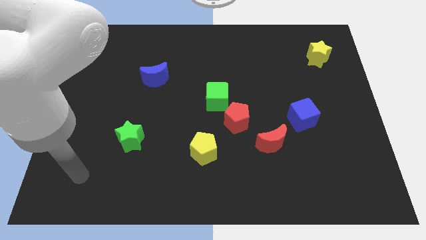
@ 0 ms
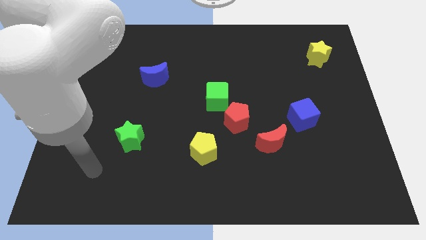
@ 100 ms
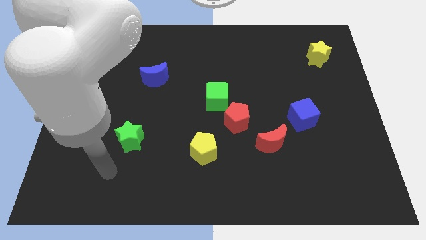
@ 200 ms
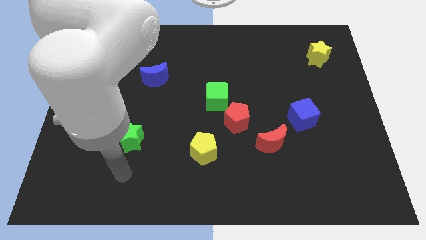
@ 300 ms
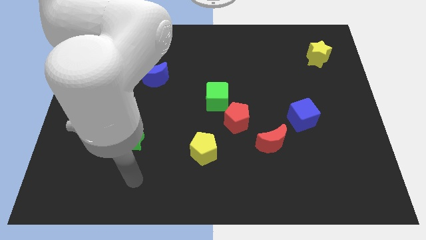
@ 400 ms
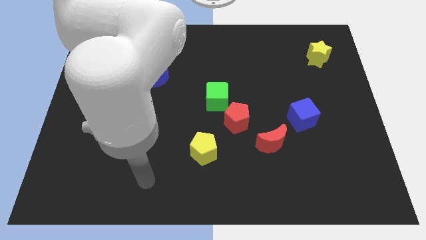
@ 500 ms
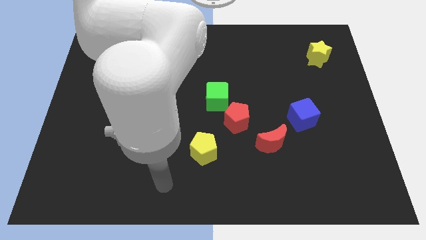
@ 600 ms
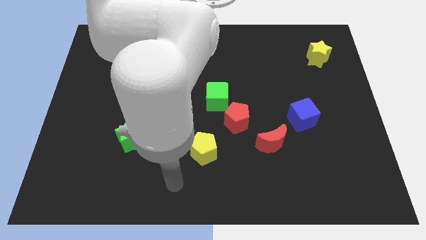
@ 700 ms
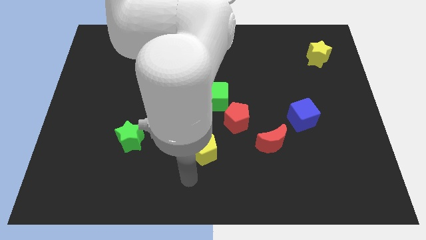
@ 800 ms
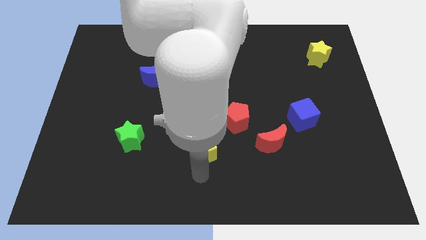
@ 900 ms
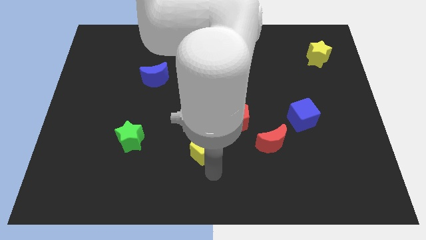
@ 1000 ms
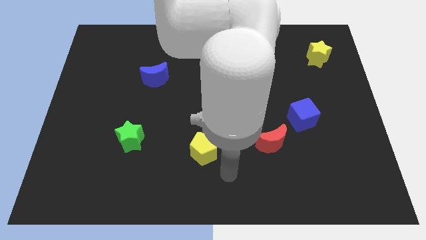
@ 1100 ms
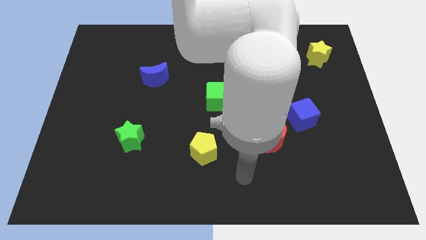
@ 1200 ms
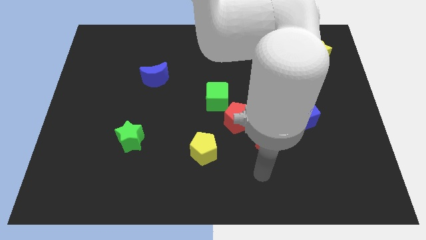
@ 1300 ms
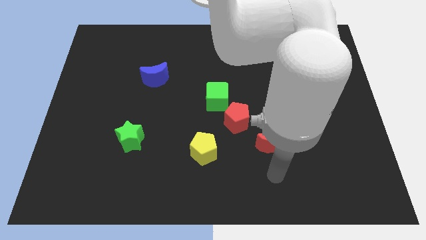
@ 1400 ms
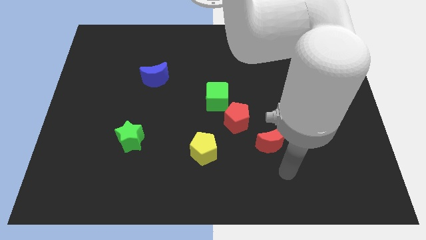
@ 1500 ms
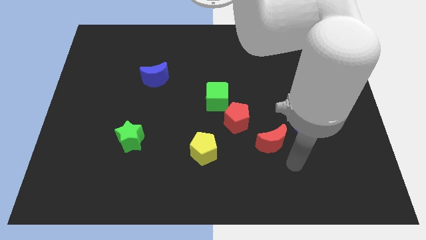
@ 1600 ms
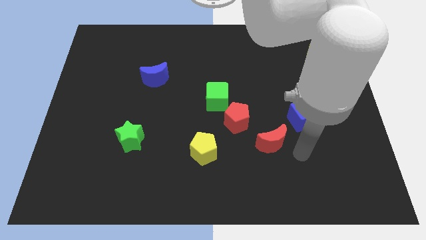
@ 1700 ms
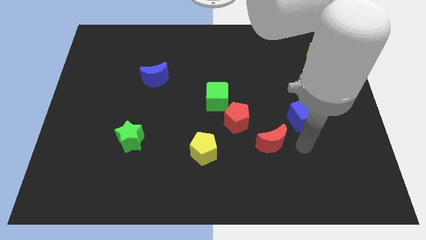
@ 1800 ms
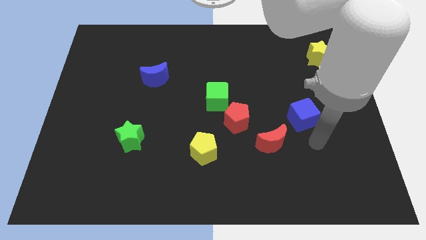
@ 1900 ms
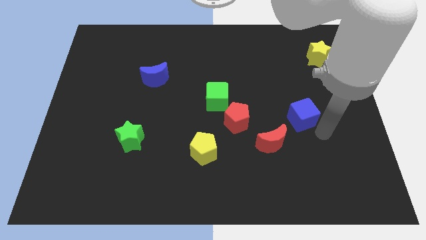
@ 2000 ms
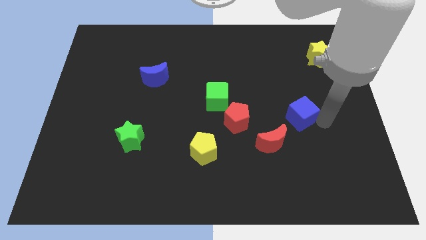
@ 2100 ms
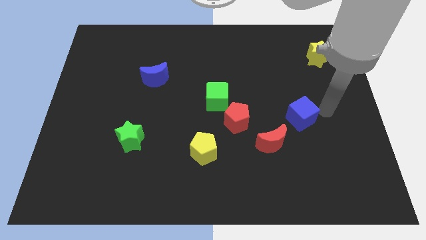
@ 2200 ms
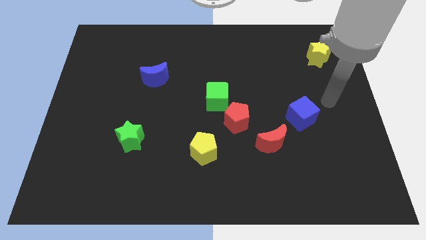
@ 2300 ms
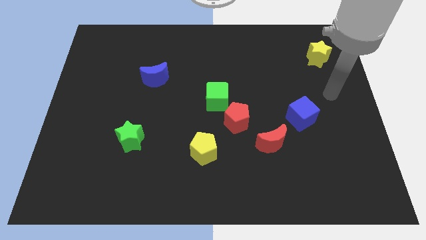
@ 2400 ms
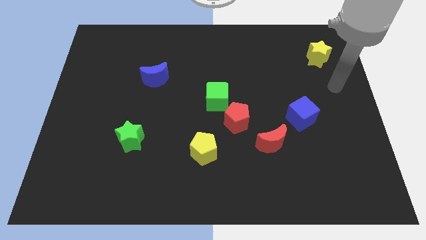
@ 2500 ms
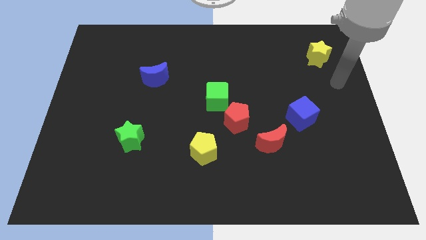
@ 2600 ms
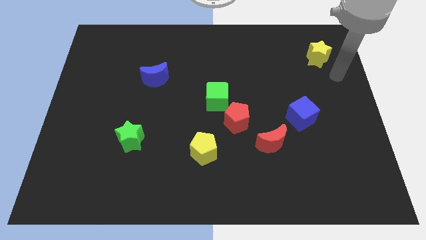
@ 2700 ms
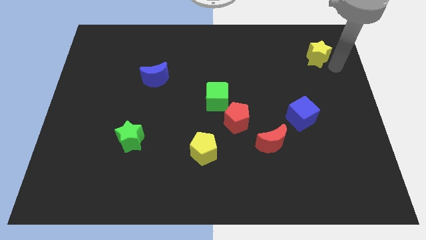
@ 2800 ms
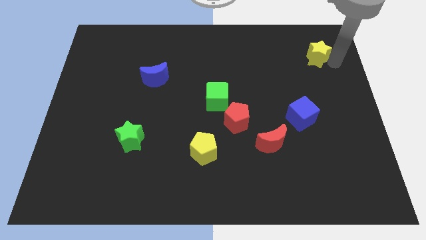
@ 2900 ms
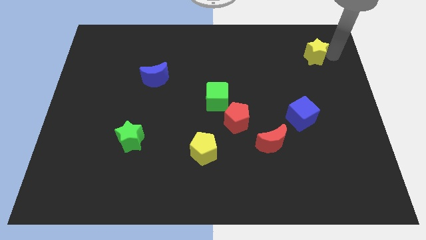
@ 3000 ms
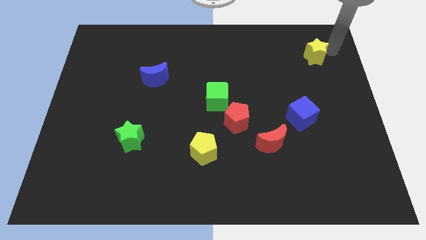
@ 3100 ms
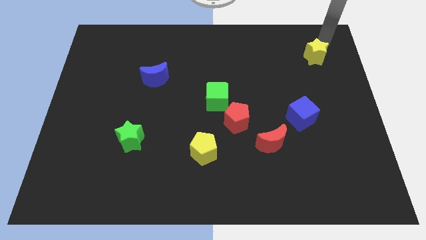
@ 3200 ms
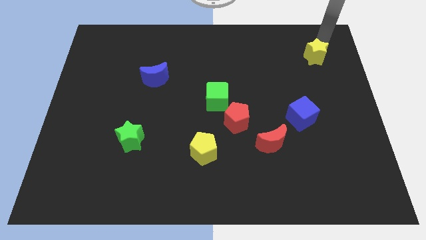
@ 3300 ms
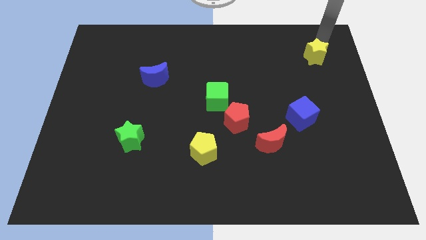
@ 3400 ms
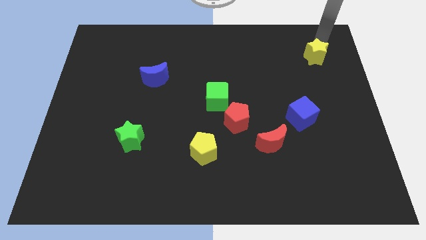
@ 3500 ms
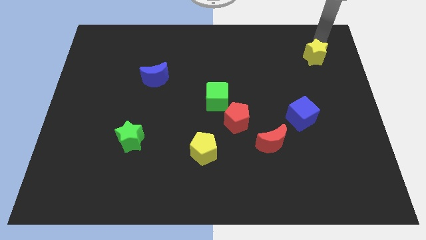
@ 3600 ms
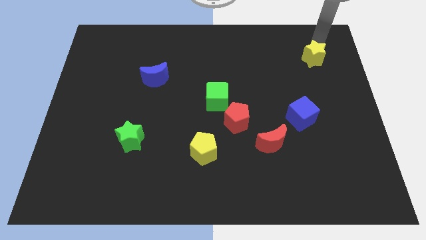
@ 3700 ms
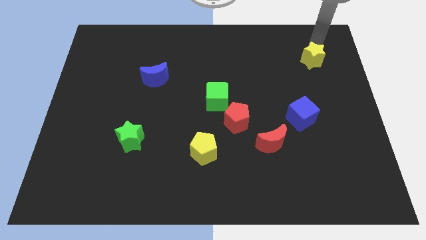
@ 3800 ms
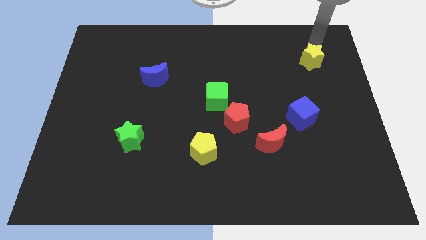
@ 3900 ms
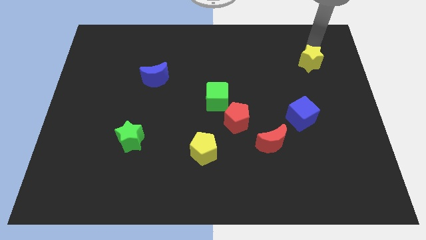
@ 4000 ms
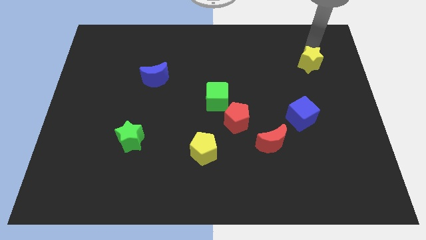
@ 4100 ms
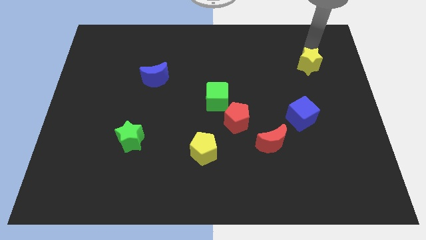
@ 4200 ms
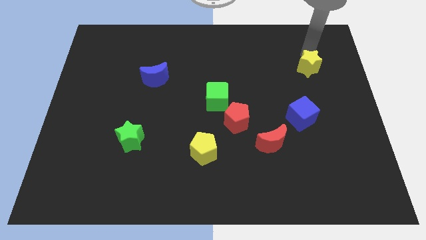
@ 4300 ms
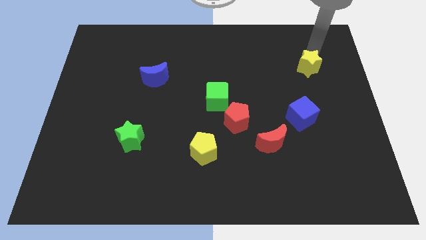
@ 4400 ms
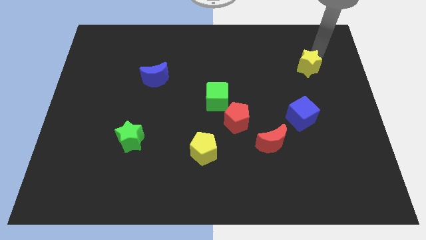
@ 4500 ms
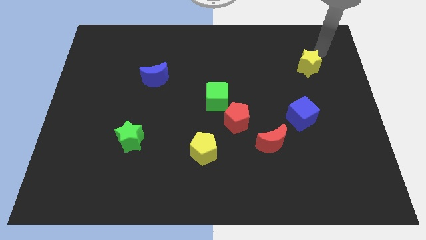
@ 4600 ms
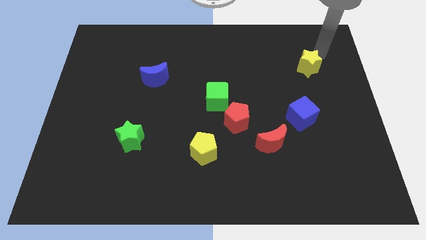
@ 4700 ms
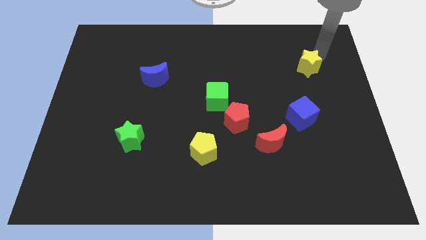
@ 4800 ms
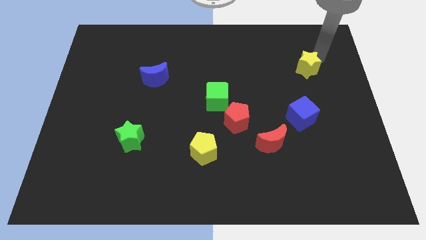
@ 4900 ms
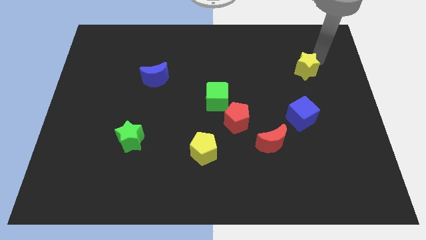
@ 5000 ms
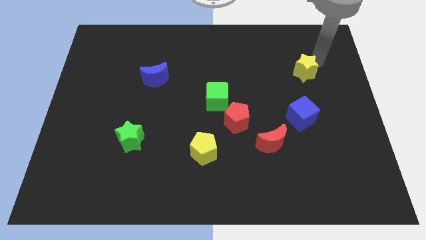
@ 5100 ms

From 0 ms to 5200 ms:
put the yellow star to the top side of the blue cube

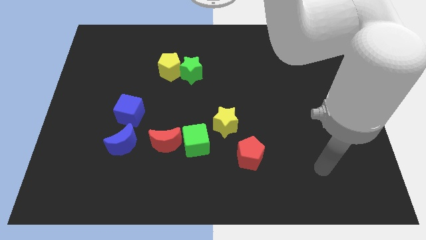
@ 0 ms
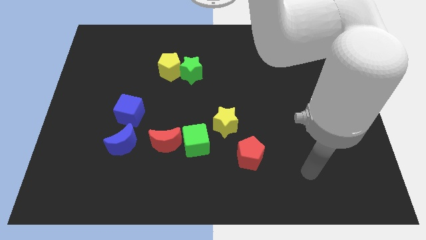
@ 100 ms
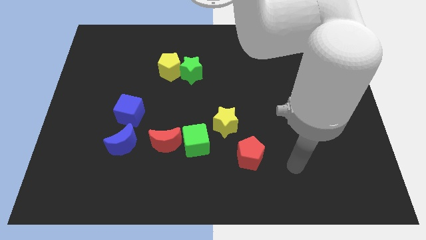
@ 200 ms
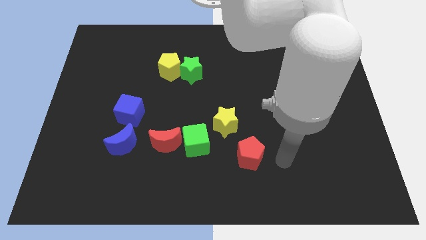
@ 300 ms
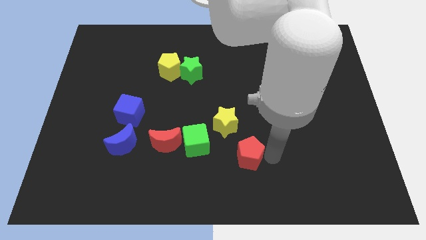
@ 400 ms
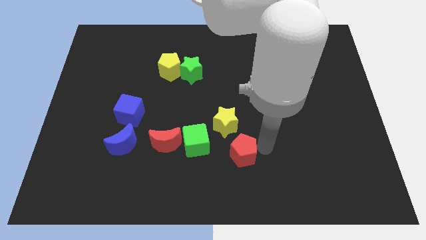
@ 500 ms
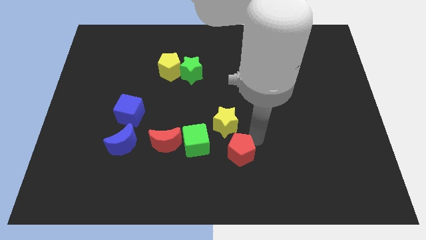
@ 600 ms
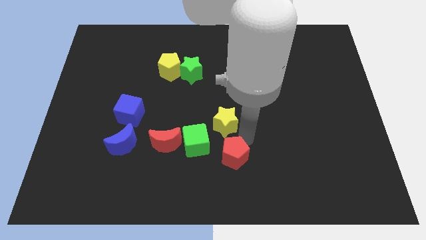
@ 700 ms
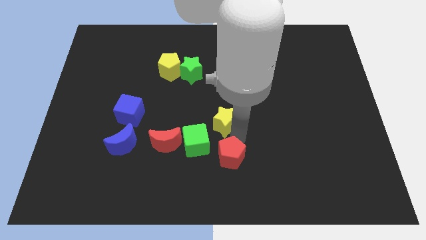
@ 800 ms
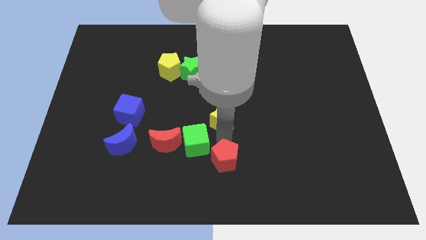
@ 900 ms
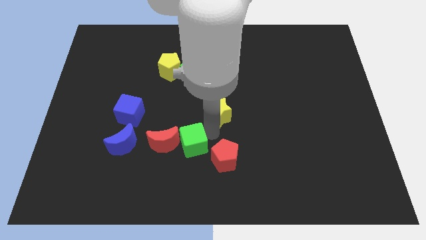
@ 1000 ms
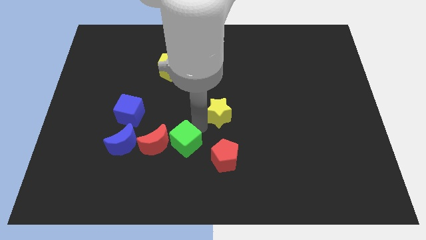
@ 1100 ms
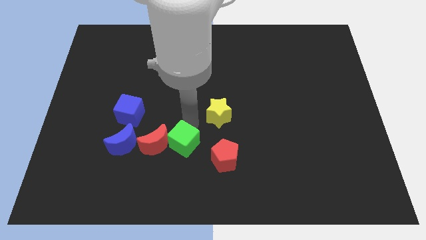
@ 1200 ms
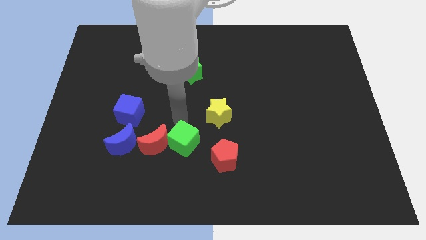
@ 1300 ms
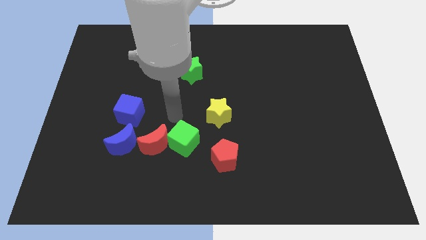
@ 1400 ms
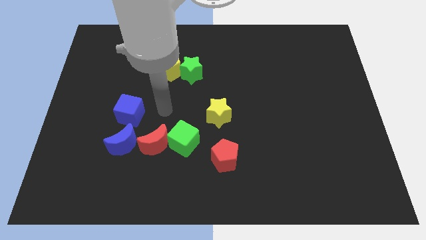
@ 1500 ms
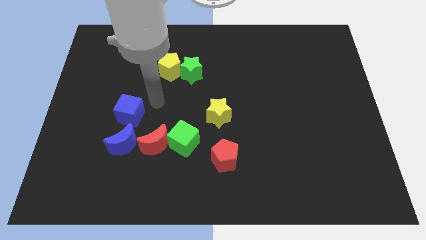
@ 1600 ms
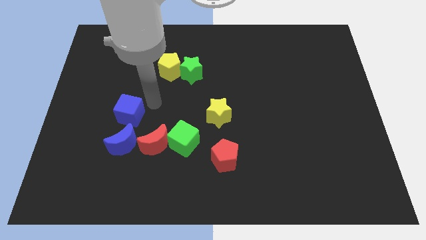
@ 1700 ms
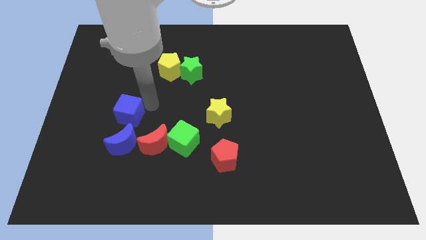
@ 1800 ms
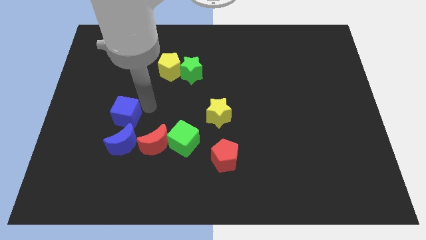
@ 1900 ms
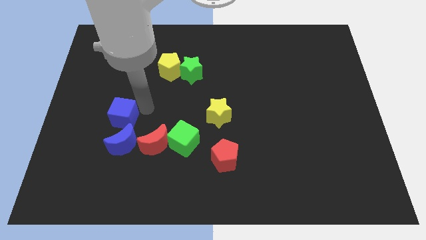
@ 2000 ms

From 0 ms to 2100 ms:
slide the blue cube to the top left side of the blue moon
